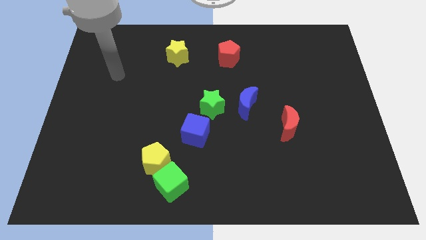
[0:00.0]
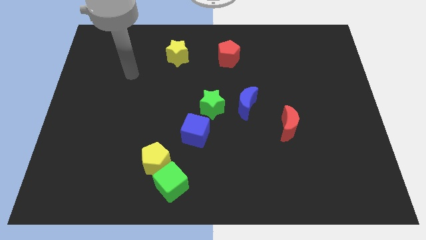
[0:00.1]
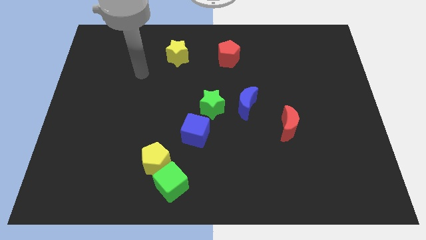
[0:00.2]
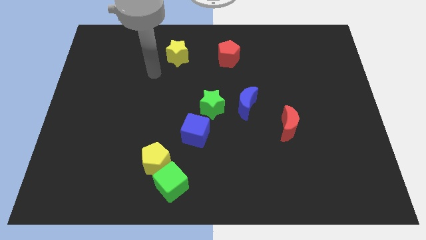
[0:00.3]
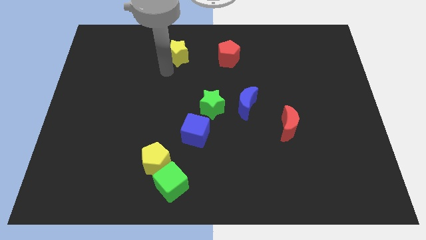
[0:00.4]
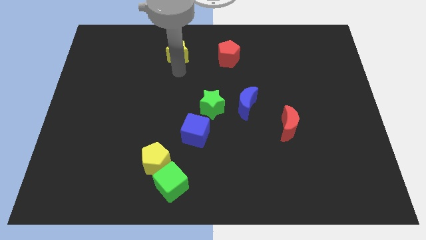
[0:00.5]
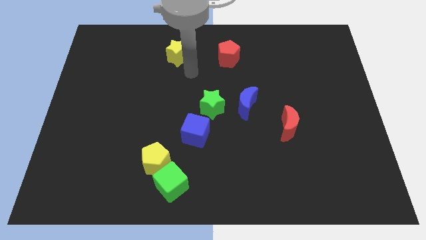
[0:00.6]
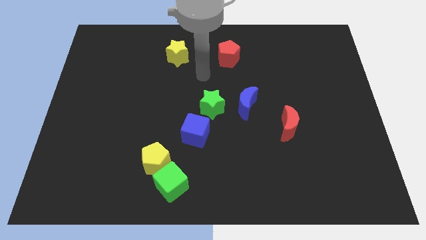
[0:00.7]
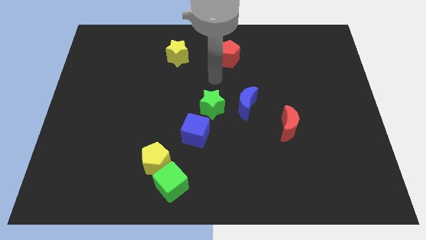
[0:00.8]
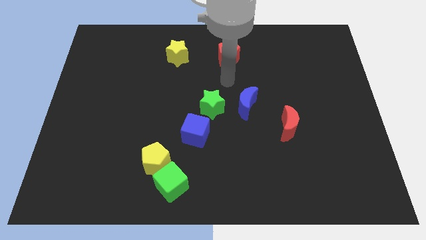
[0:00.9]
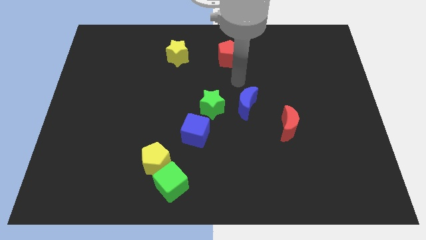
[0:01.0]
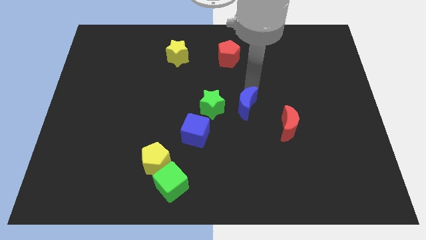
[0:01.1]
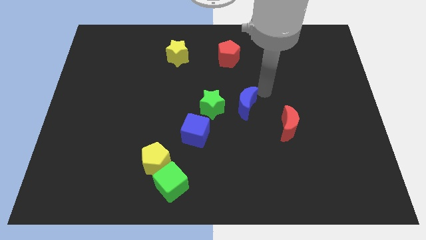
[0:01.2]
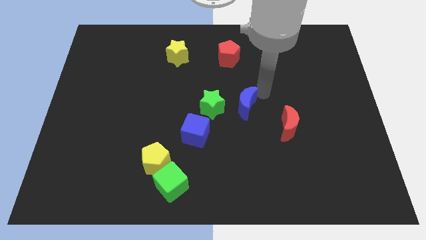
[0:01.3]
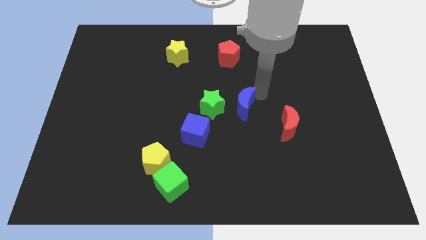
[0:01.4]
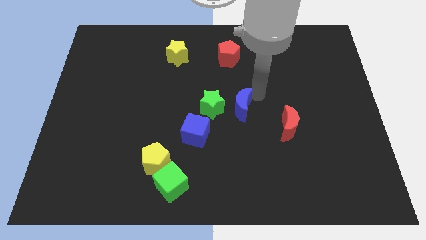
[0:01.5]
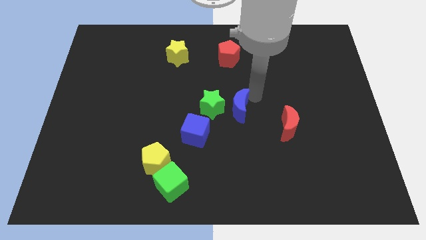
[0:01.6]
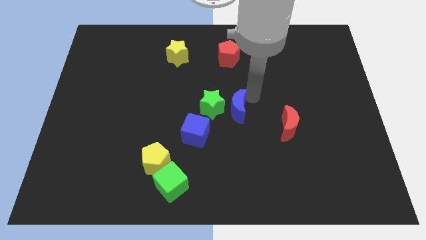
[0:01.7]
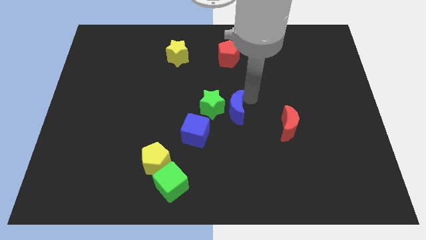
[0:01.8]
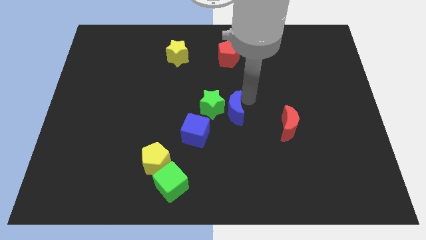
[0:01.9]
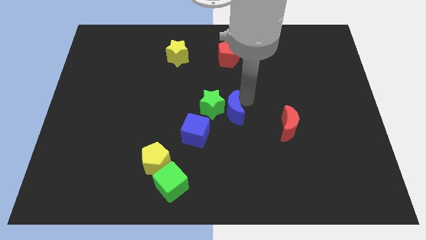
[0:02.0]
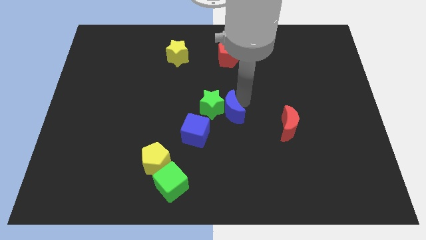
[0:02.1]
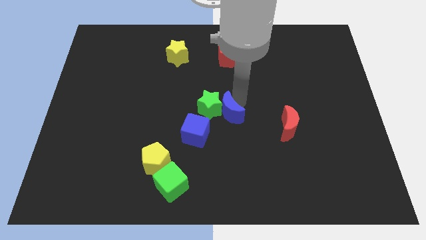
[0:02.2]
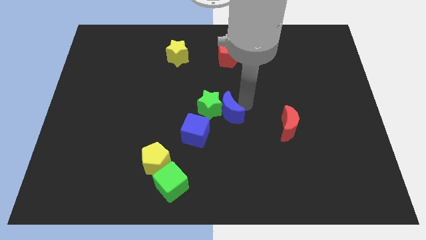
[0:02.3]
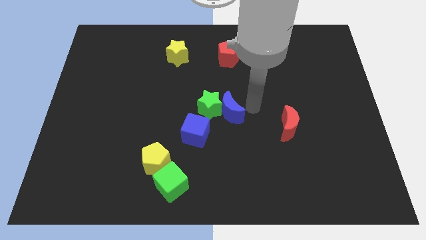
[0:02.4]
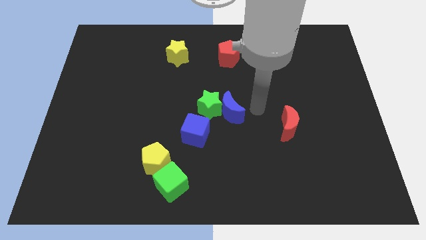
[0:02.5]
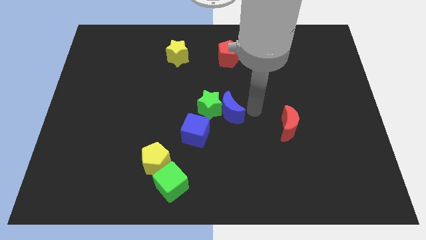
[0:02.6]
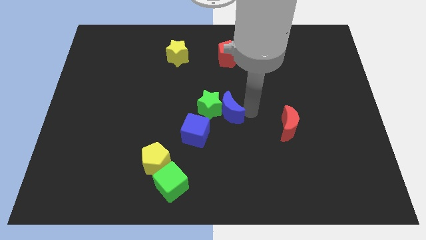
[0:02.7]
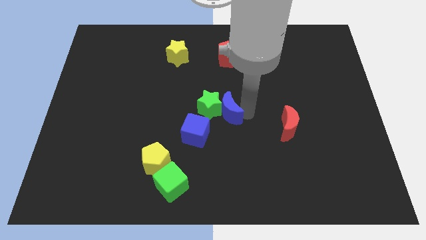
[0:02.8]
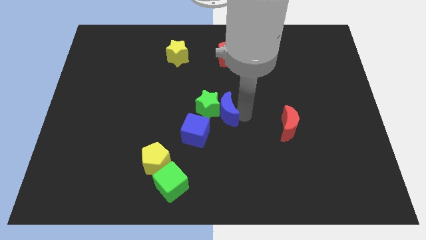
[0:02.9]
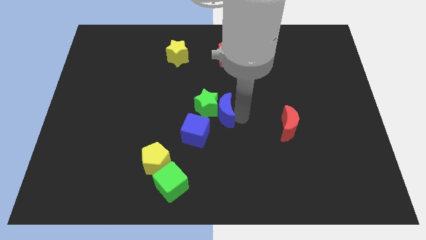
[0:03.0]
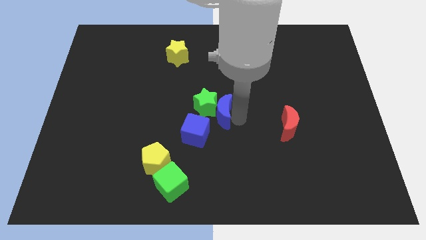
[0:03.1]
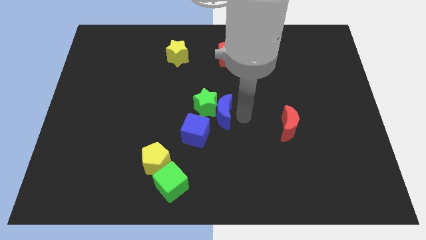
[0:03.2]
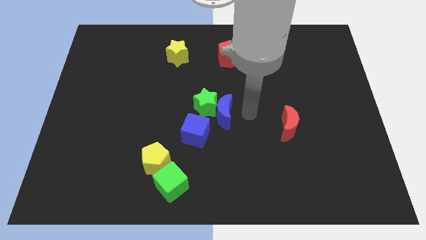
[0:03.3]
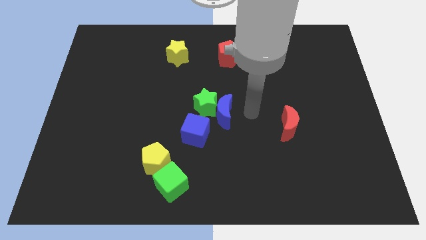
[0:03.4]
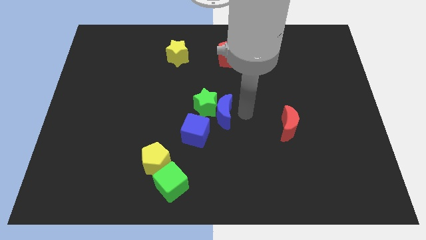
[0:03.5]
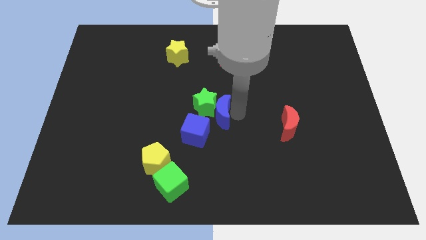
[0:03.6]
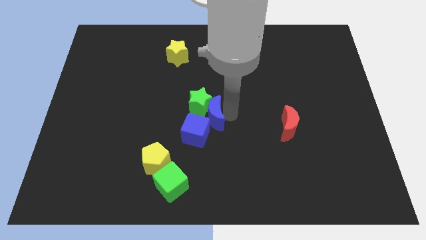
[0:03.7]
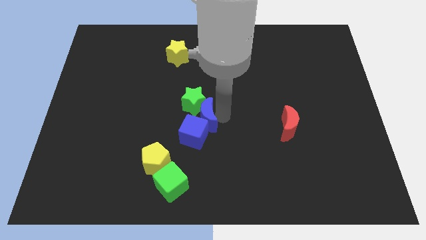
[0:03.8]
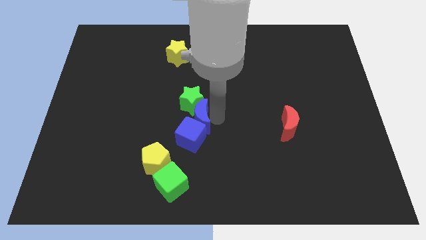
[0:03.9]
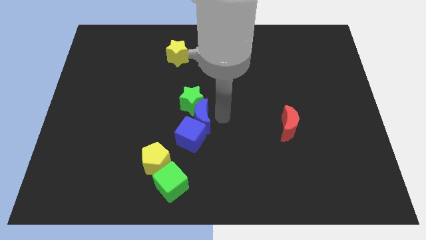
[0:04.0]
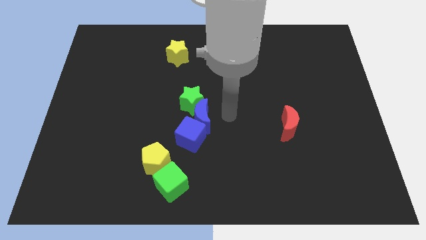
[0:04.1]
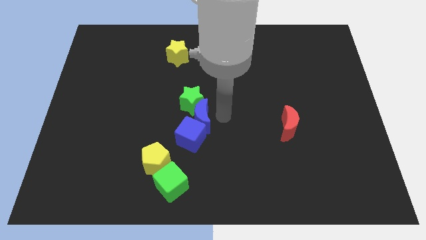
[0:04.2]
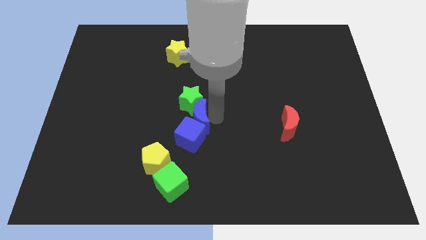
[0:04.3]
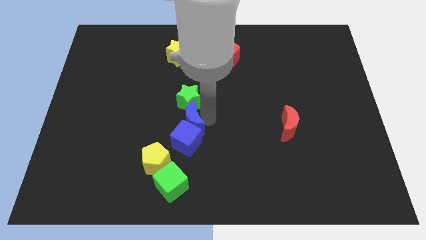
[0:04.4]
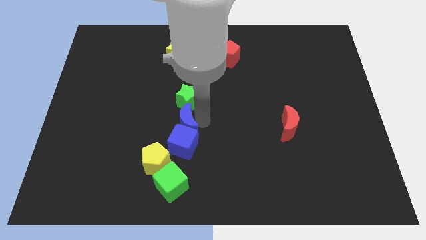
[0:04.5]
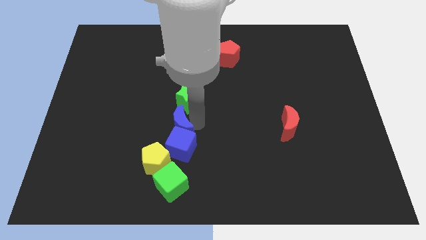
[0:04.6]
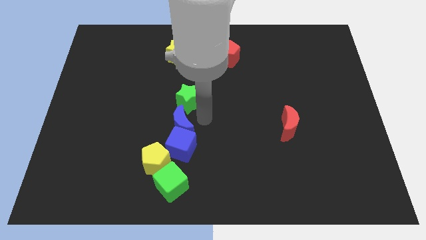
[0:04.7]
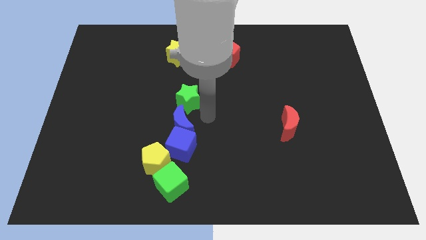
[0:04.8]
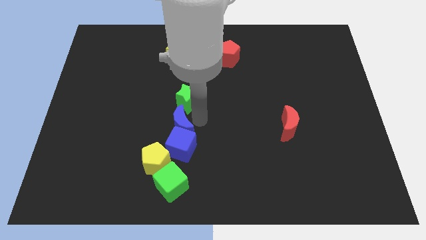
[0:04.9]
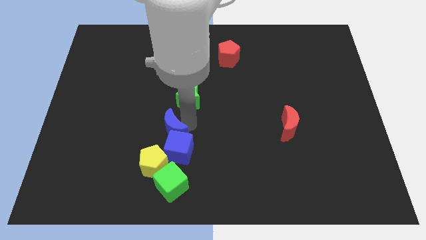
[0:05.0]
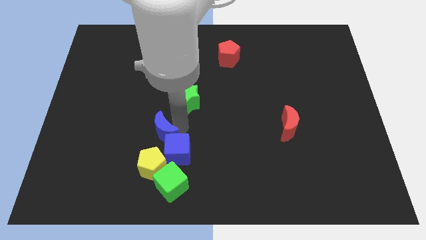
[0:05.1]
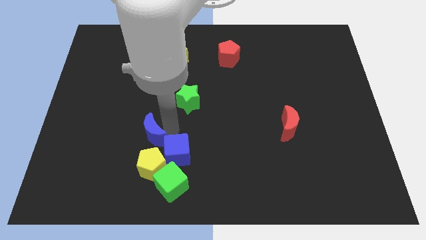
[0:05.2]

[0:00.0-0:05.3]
slide the blue moon just left of the blue cube

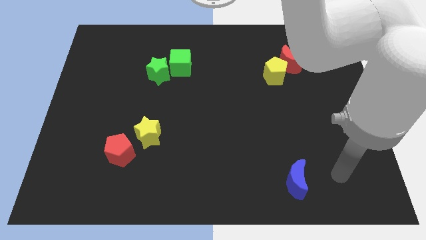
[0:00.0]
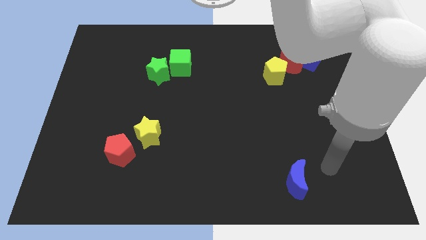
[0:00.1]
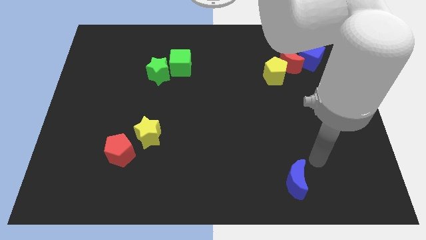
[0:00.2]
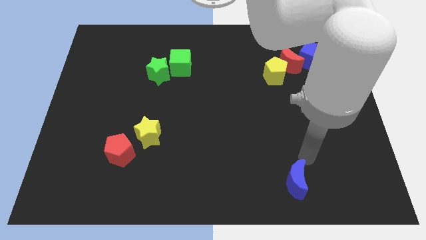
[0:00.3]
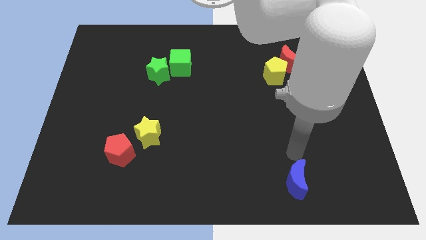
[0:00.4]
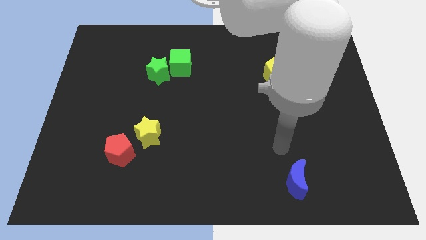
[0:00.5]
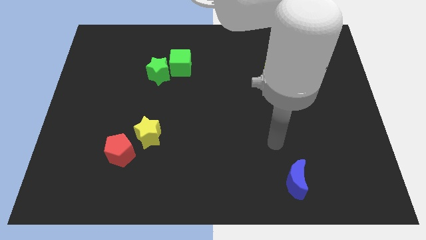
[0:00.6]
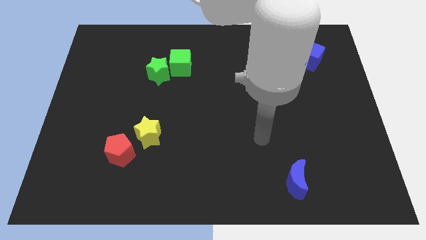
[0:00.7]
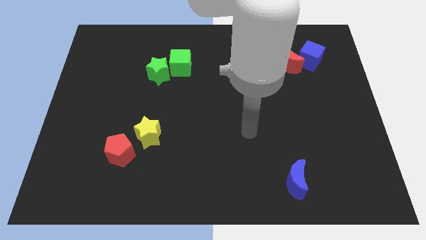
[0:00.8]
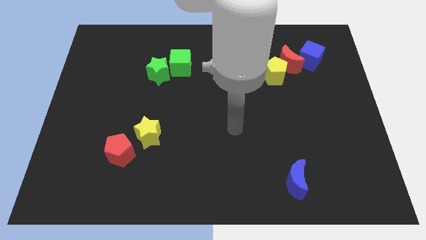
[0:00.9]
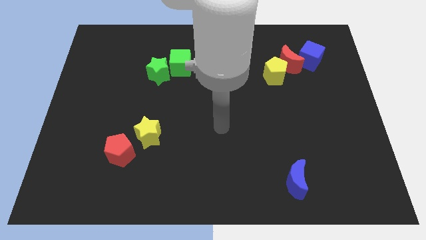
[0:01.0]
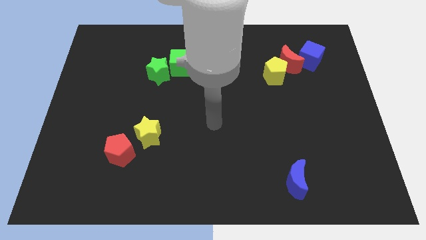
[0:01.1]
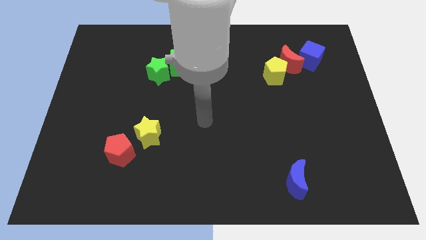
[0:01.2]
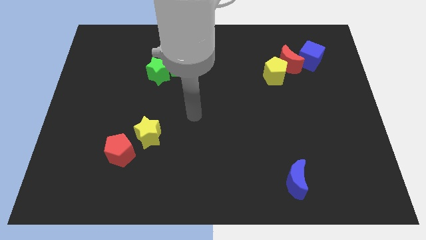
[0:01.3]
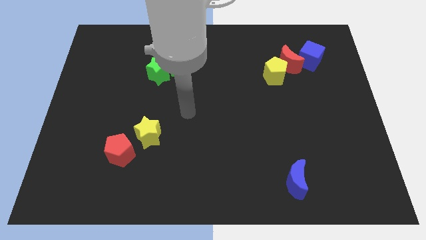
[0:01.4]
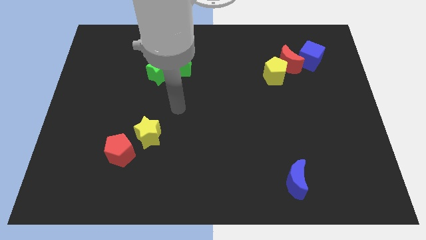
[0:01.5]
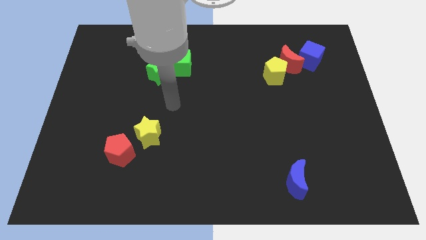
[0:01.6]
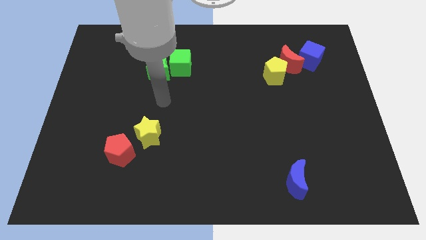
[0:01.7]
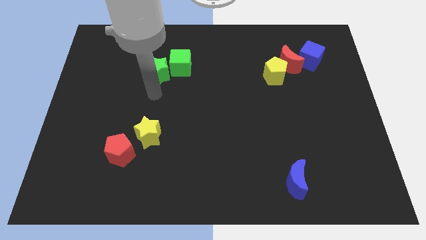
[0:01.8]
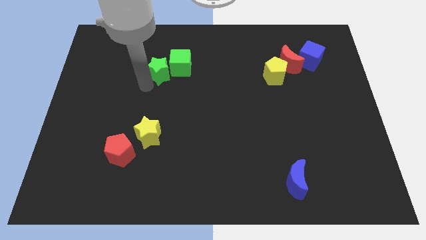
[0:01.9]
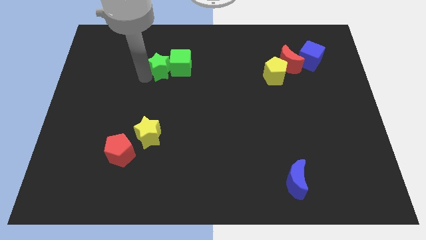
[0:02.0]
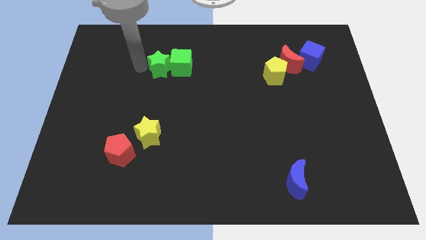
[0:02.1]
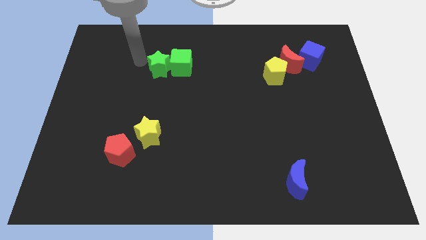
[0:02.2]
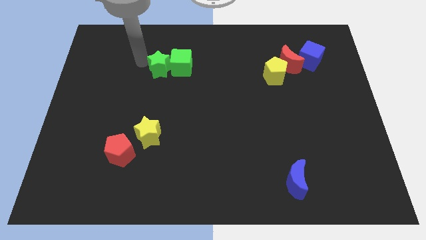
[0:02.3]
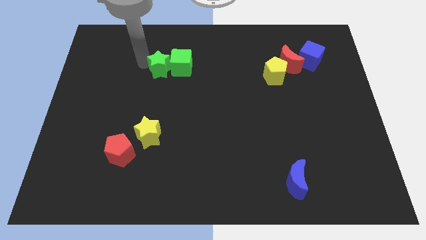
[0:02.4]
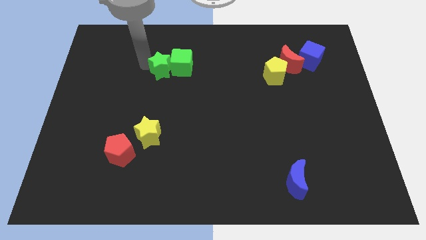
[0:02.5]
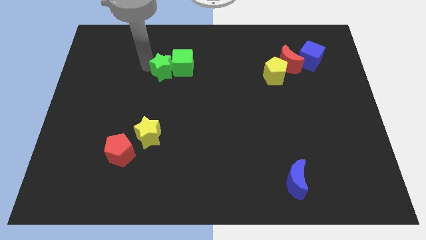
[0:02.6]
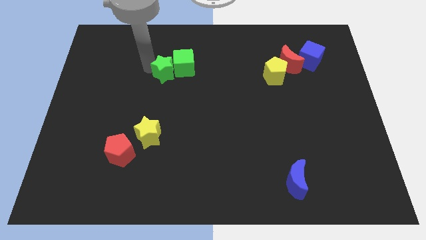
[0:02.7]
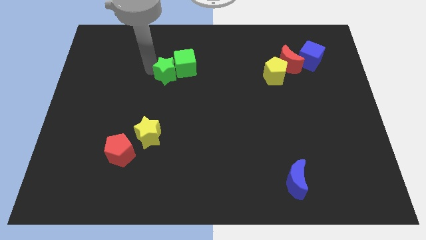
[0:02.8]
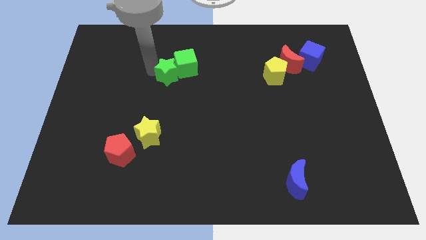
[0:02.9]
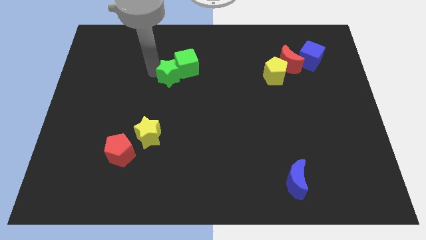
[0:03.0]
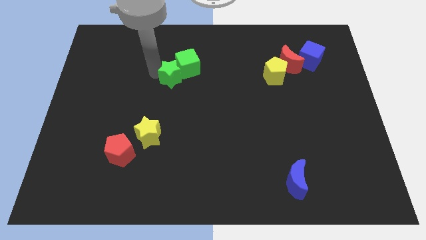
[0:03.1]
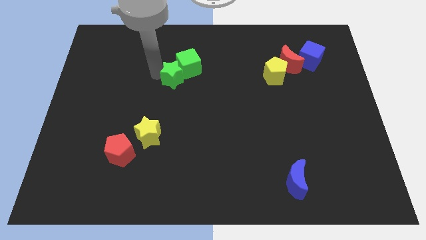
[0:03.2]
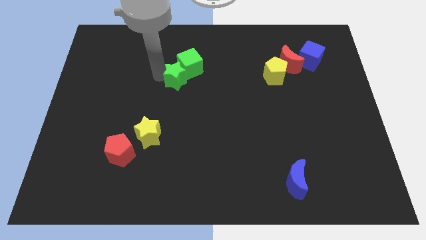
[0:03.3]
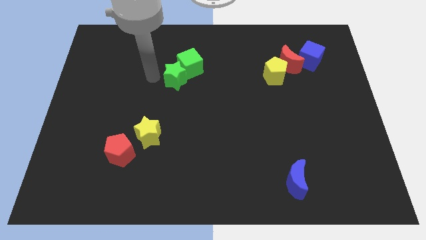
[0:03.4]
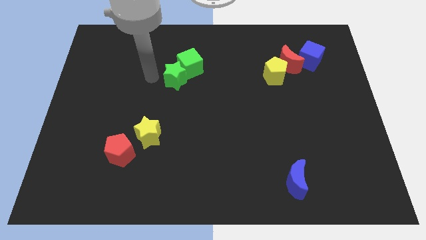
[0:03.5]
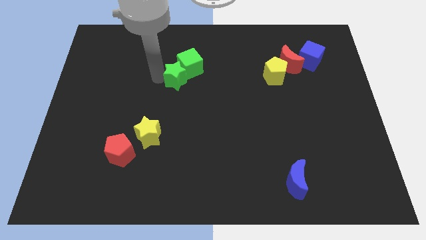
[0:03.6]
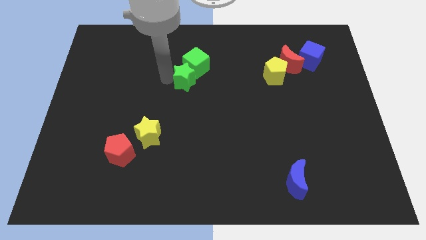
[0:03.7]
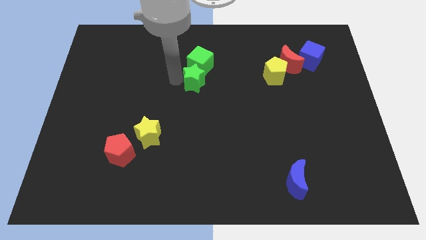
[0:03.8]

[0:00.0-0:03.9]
push the green star to the bottom right of the green cube
